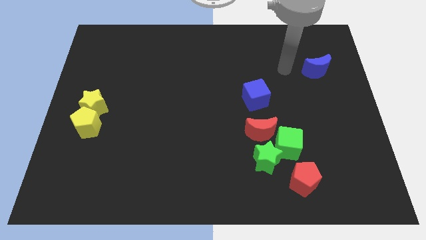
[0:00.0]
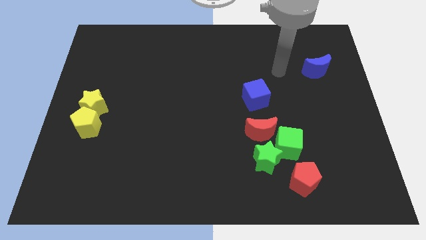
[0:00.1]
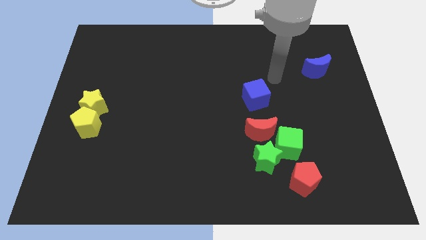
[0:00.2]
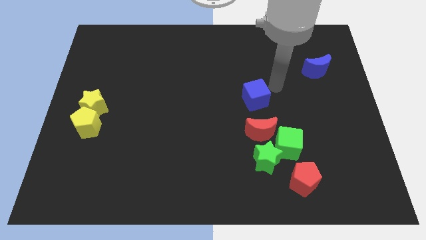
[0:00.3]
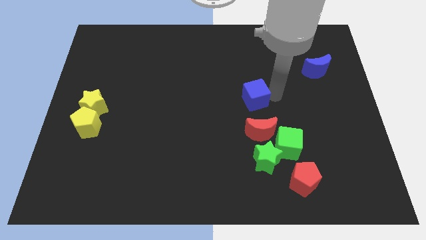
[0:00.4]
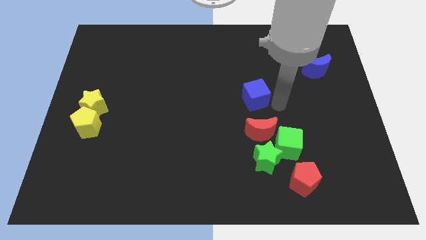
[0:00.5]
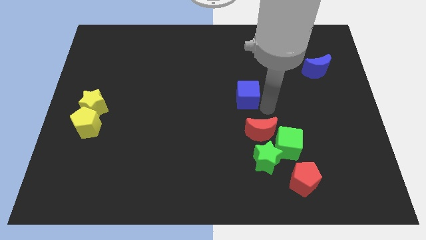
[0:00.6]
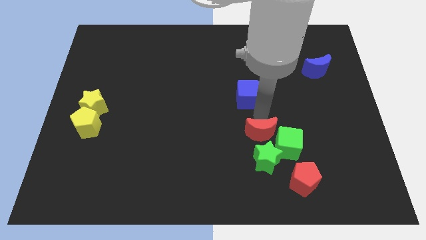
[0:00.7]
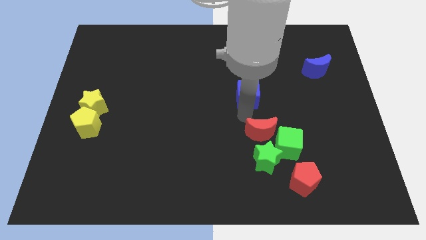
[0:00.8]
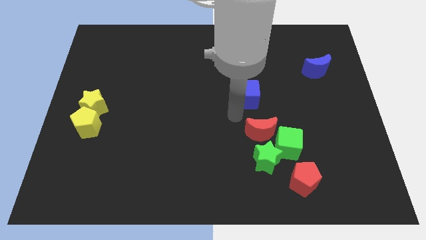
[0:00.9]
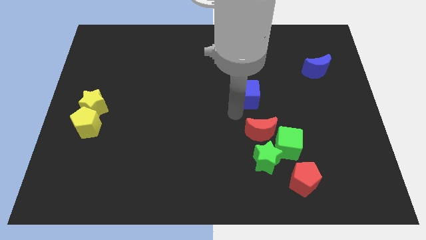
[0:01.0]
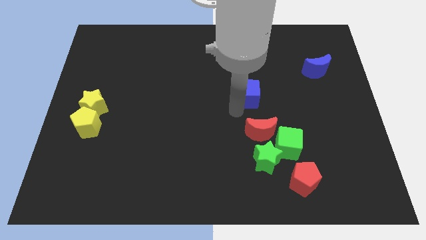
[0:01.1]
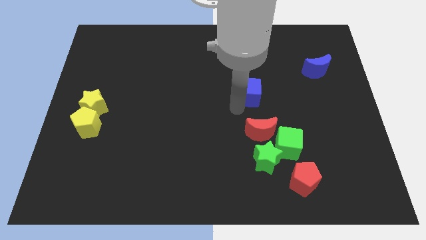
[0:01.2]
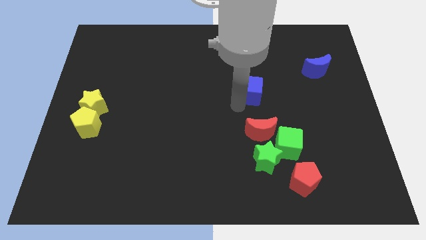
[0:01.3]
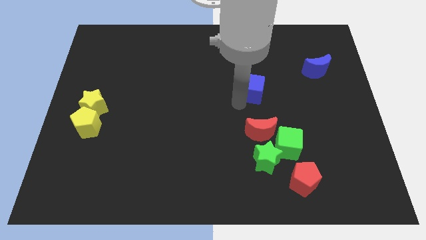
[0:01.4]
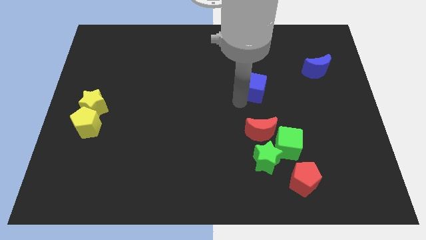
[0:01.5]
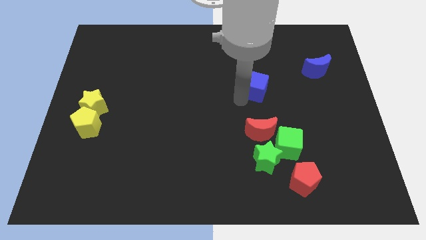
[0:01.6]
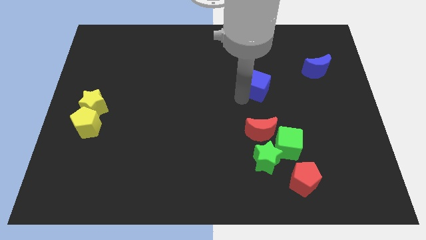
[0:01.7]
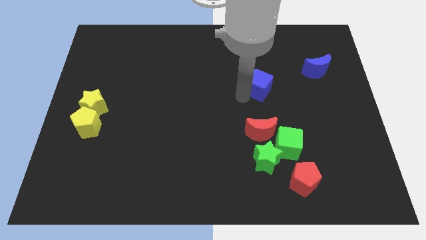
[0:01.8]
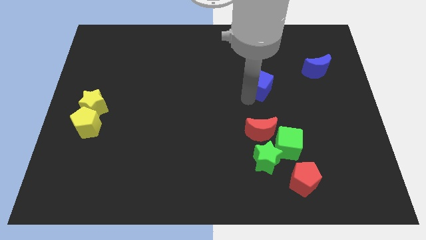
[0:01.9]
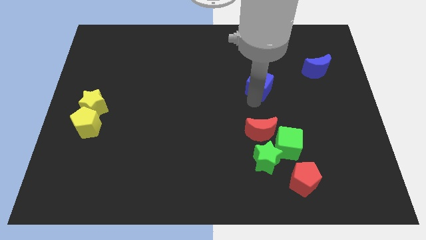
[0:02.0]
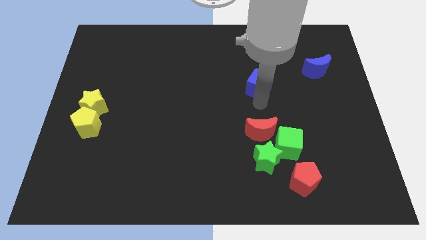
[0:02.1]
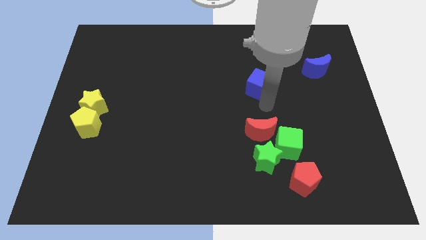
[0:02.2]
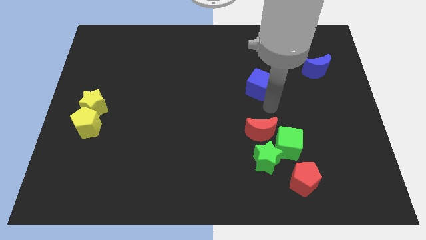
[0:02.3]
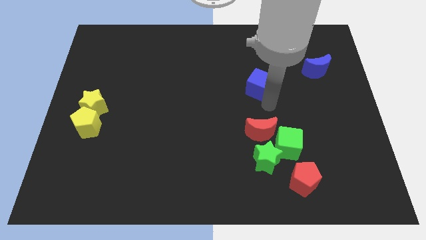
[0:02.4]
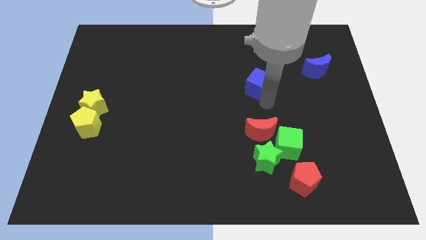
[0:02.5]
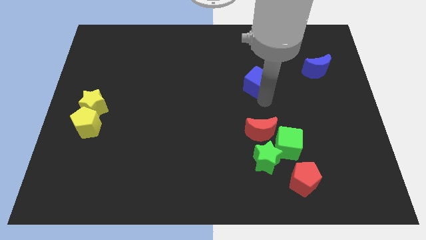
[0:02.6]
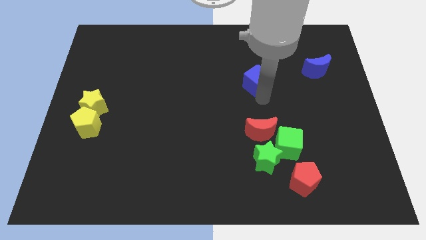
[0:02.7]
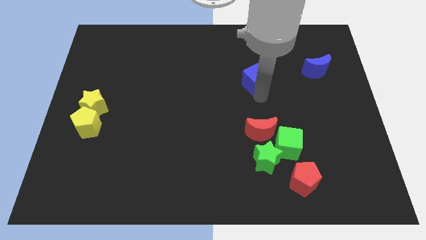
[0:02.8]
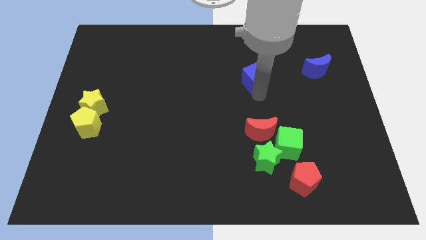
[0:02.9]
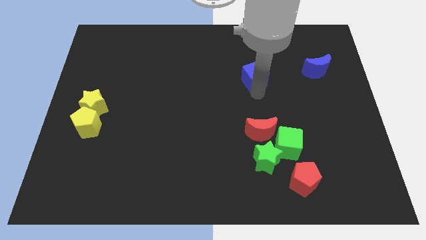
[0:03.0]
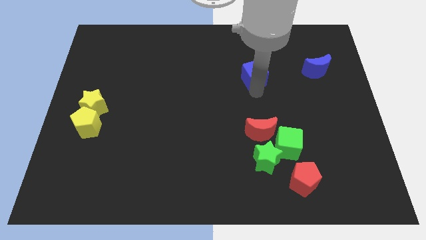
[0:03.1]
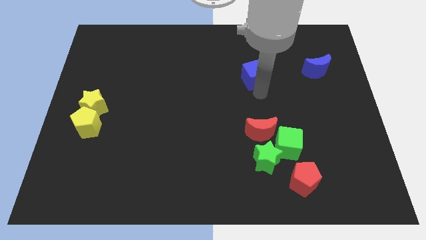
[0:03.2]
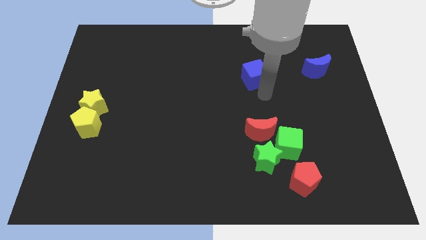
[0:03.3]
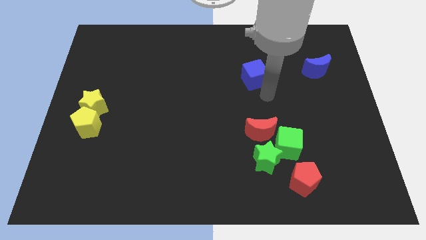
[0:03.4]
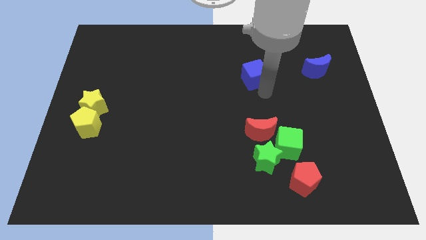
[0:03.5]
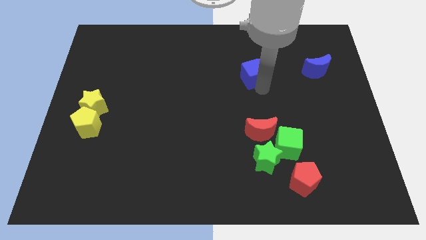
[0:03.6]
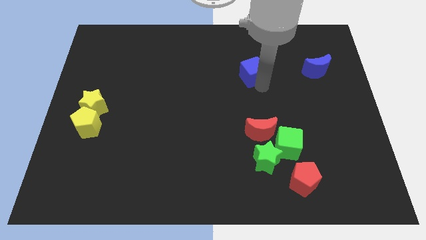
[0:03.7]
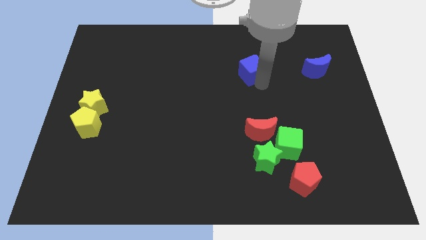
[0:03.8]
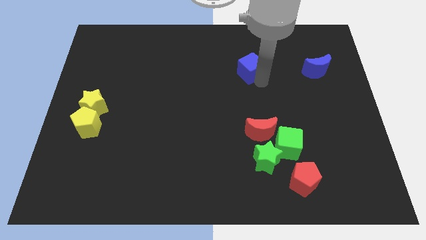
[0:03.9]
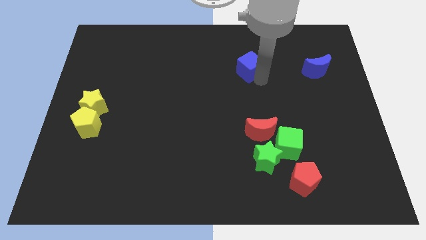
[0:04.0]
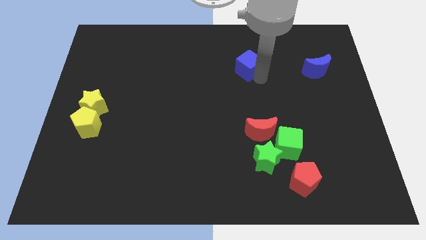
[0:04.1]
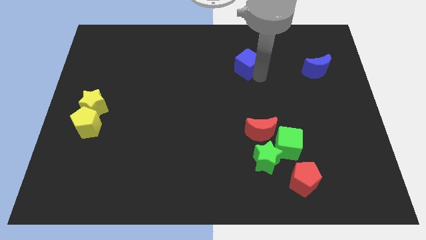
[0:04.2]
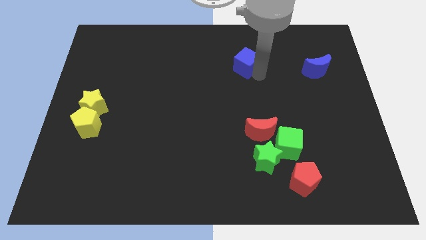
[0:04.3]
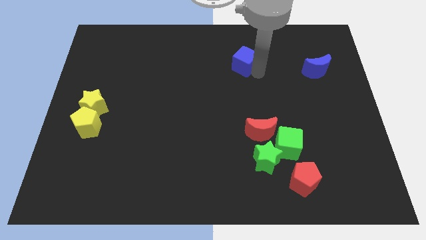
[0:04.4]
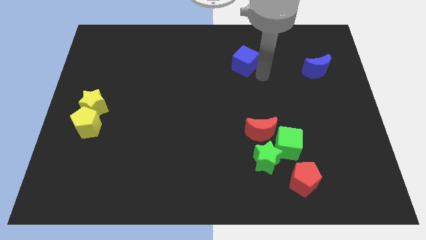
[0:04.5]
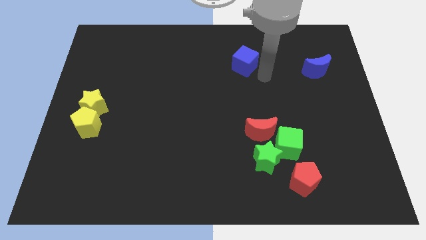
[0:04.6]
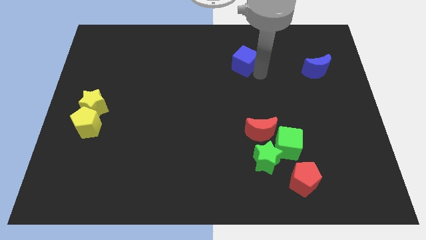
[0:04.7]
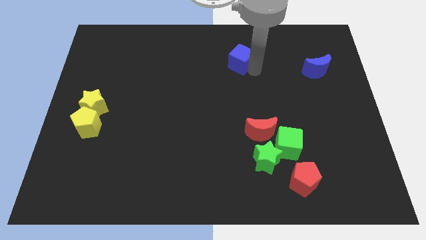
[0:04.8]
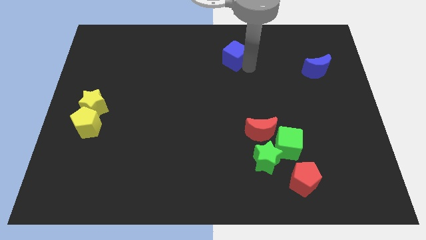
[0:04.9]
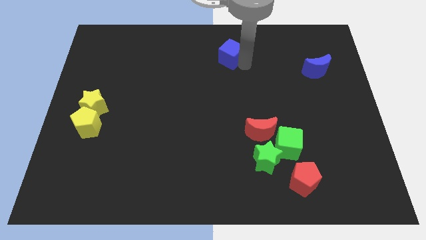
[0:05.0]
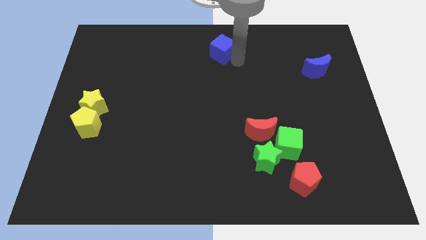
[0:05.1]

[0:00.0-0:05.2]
move the blue cube to the top

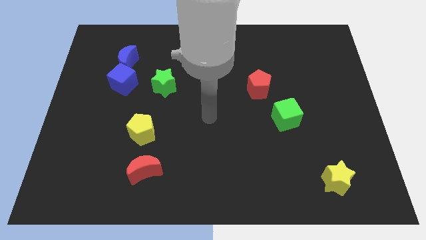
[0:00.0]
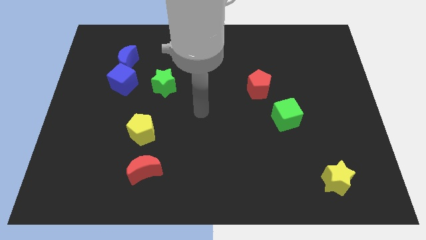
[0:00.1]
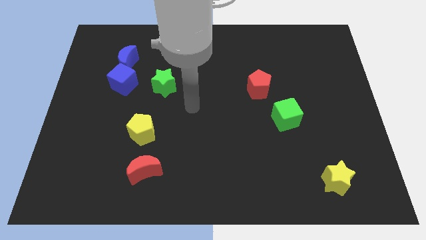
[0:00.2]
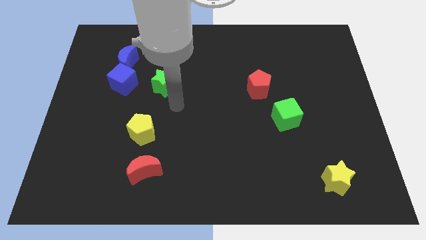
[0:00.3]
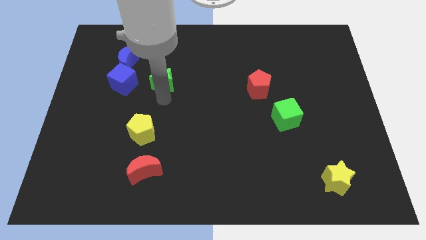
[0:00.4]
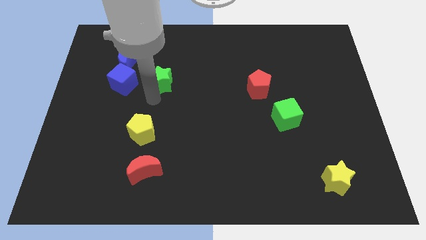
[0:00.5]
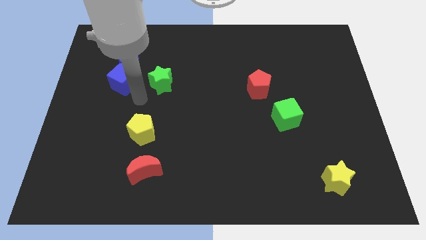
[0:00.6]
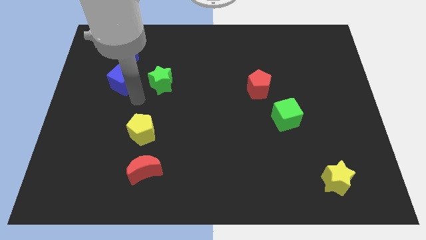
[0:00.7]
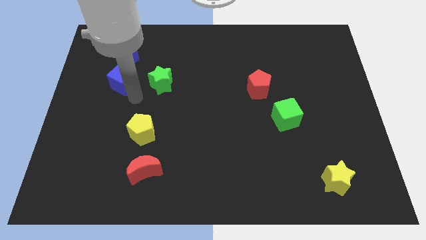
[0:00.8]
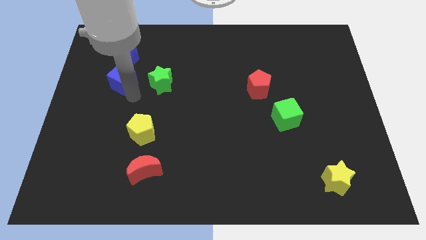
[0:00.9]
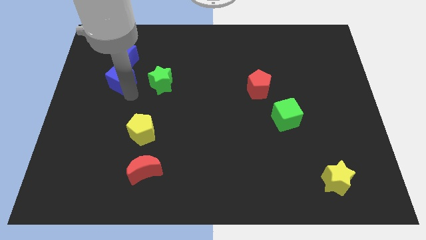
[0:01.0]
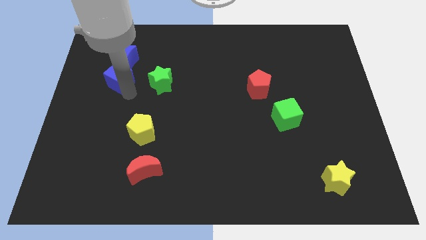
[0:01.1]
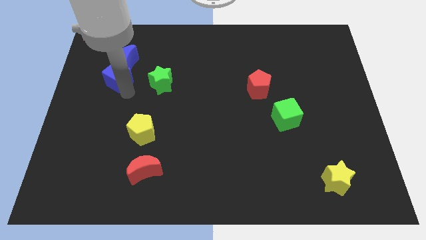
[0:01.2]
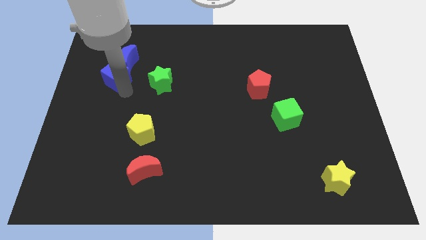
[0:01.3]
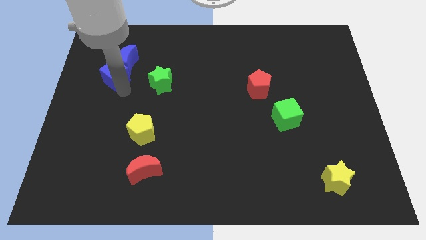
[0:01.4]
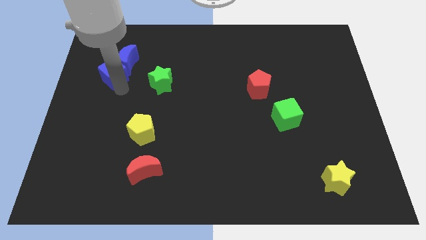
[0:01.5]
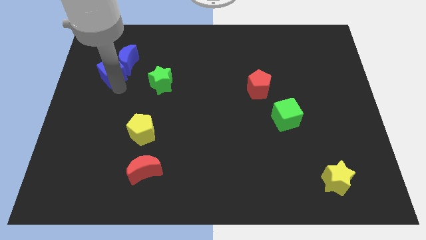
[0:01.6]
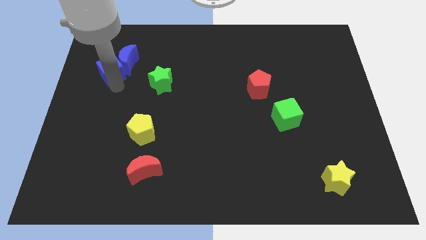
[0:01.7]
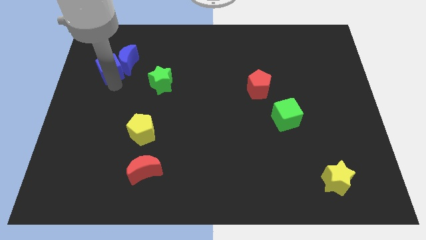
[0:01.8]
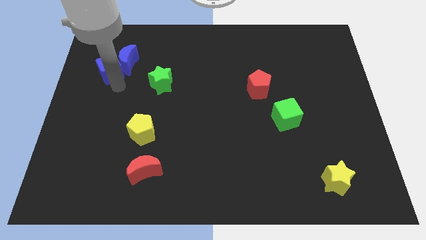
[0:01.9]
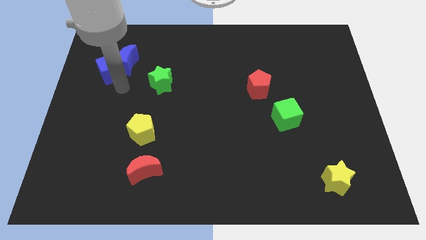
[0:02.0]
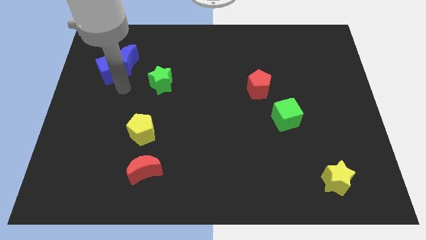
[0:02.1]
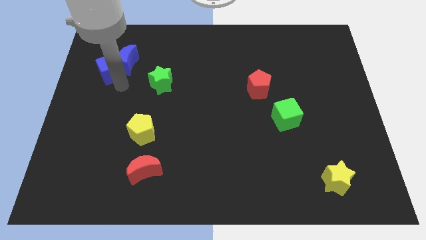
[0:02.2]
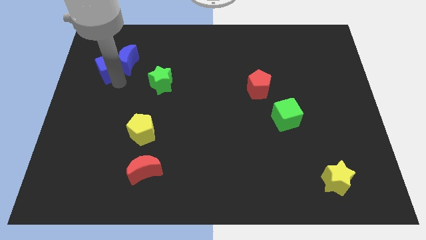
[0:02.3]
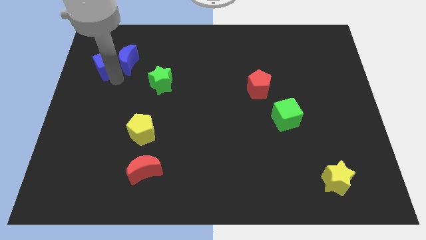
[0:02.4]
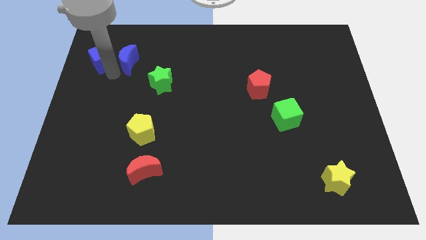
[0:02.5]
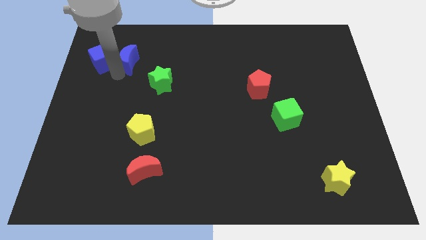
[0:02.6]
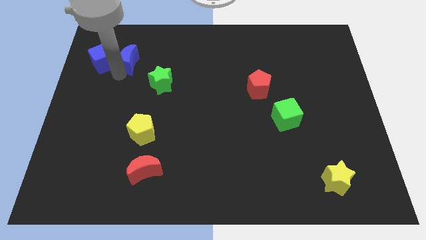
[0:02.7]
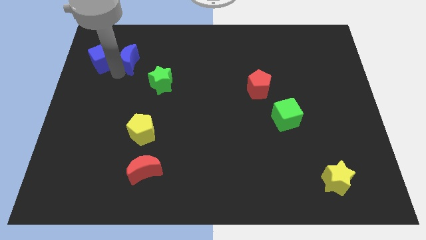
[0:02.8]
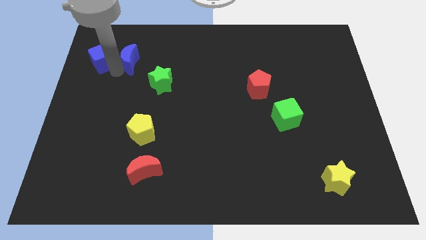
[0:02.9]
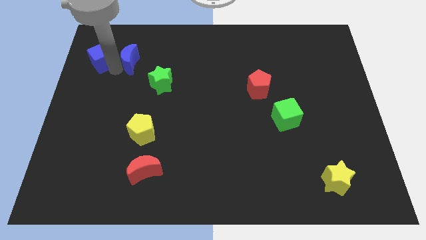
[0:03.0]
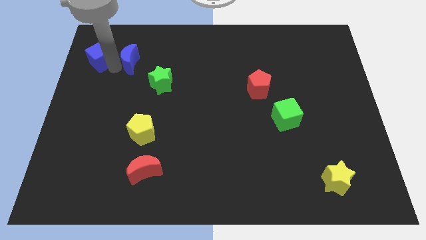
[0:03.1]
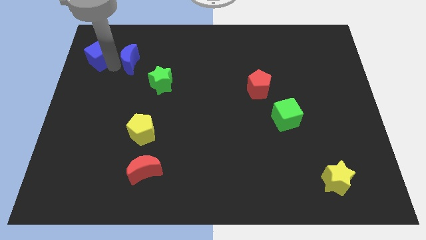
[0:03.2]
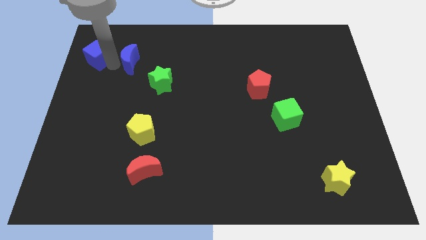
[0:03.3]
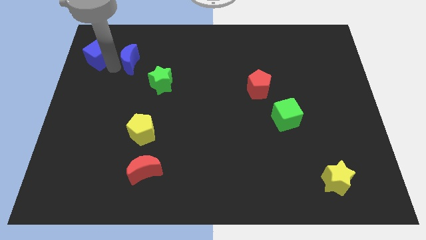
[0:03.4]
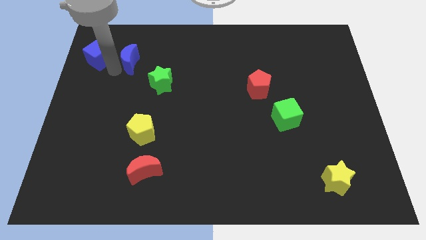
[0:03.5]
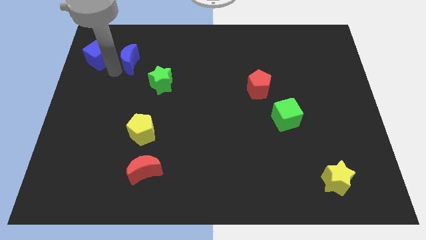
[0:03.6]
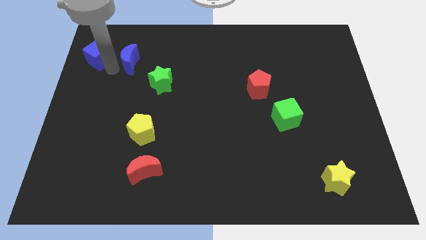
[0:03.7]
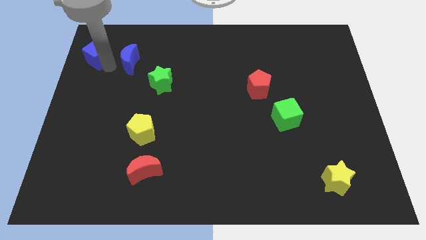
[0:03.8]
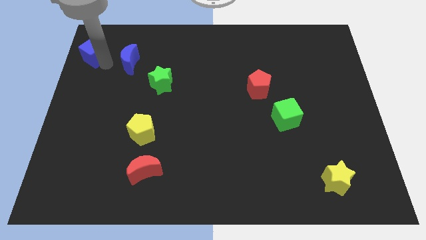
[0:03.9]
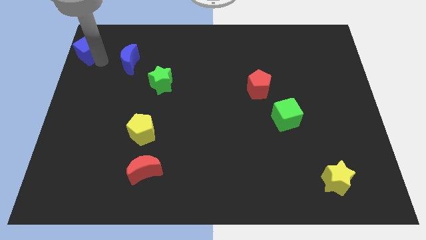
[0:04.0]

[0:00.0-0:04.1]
put the blue cube to the top left
